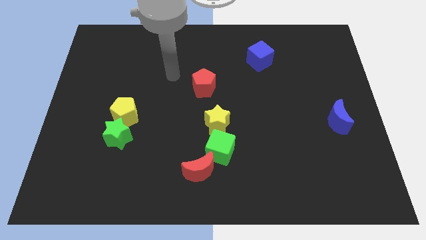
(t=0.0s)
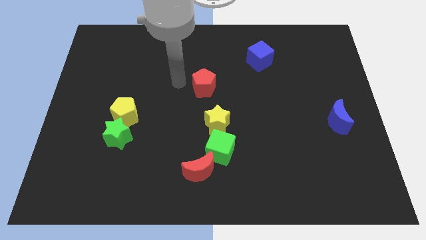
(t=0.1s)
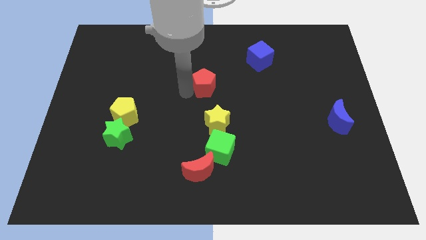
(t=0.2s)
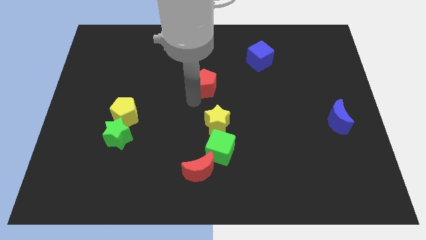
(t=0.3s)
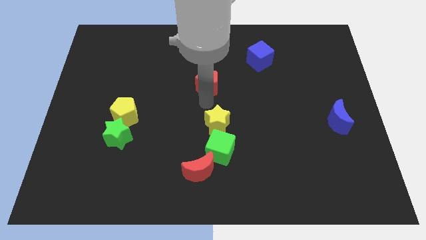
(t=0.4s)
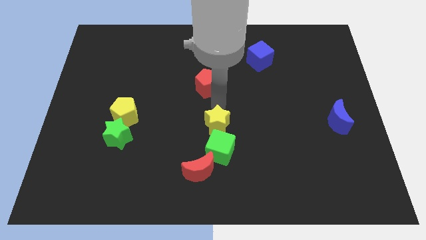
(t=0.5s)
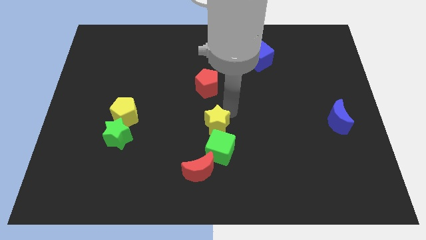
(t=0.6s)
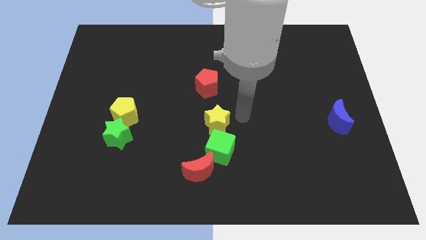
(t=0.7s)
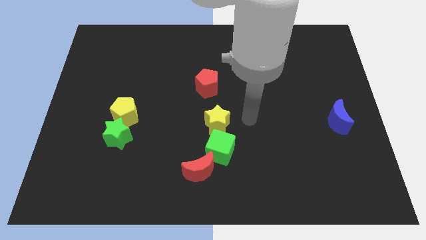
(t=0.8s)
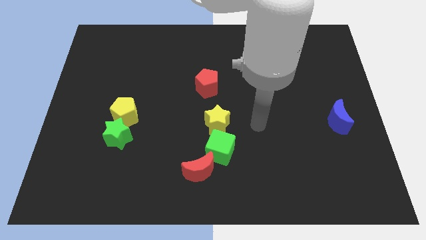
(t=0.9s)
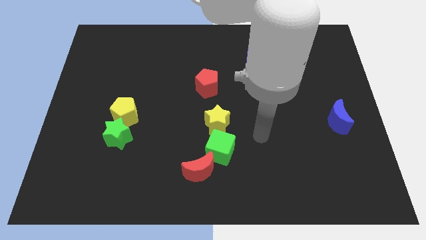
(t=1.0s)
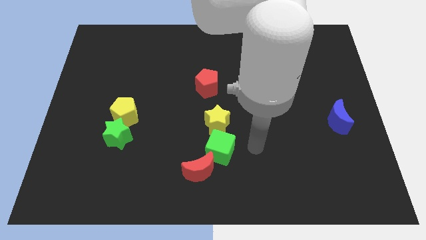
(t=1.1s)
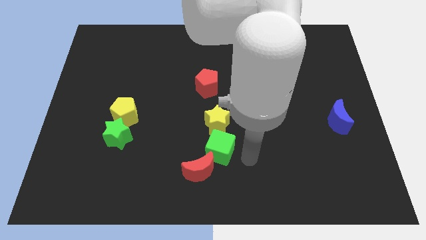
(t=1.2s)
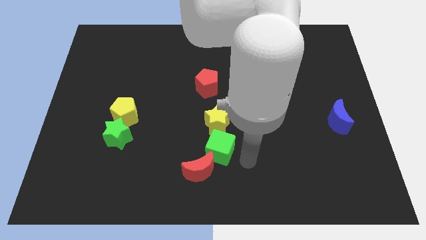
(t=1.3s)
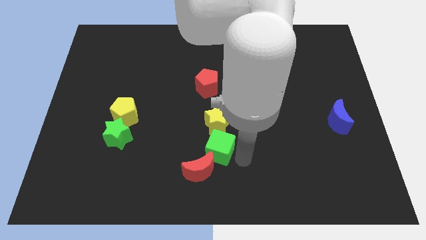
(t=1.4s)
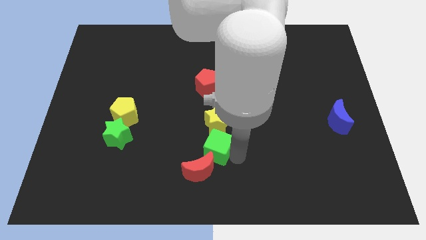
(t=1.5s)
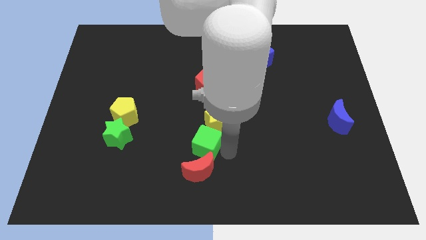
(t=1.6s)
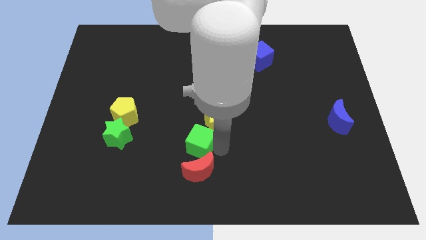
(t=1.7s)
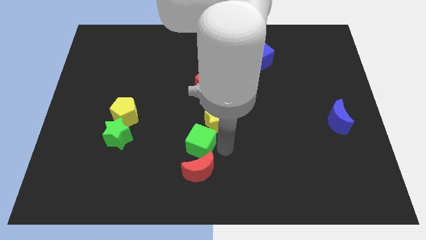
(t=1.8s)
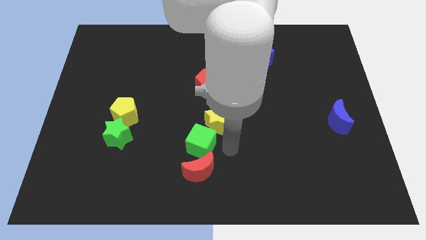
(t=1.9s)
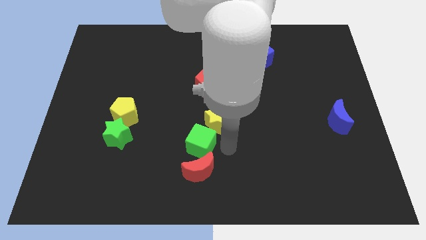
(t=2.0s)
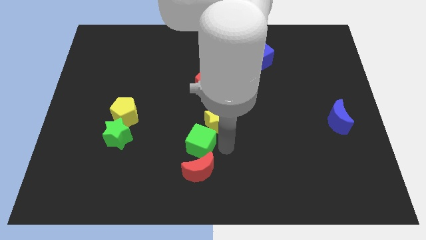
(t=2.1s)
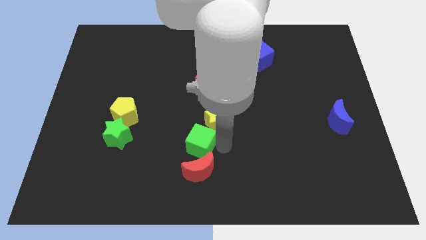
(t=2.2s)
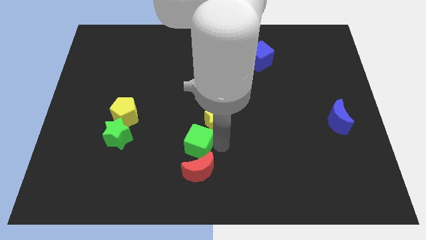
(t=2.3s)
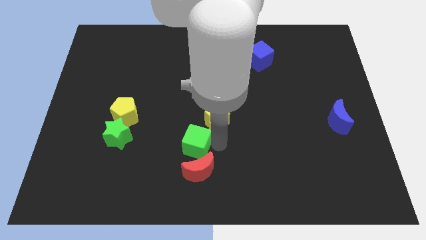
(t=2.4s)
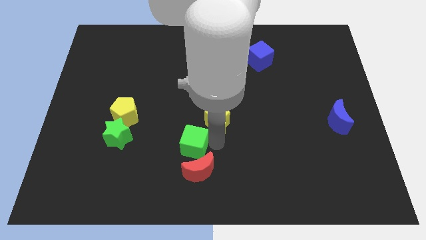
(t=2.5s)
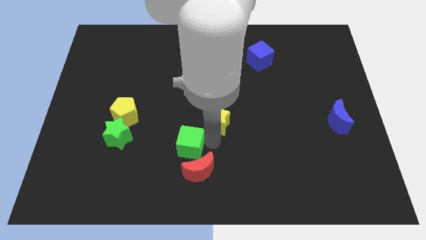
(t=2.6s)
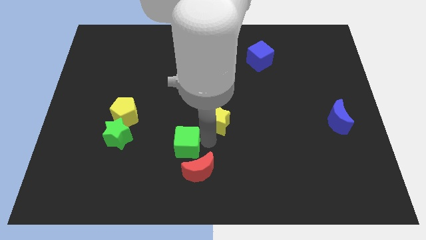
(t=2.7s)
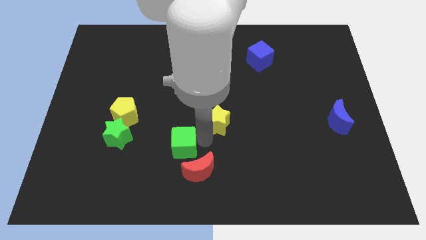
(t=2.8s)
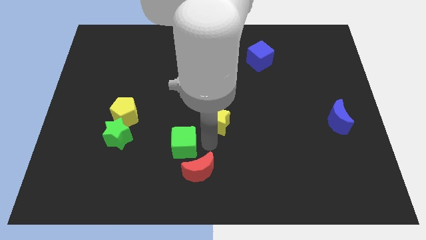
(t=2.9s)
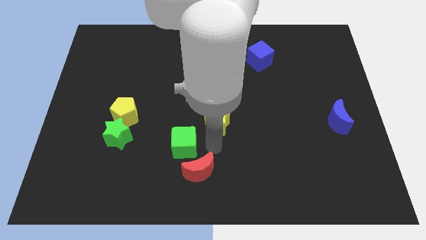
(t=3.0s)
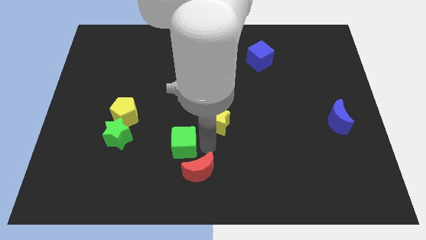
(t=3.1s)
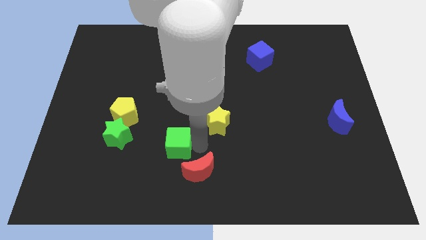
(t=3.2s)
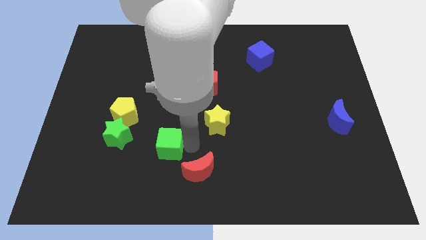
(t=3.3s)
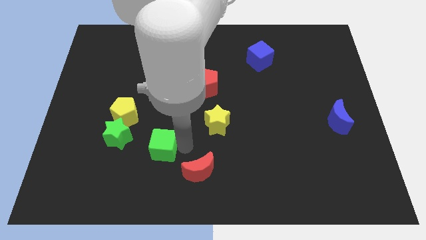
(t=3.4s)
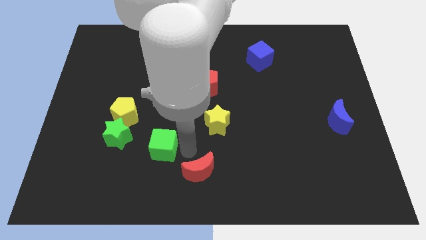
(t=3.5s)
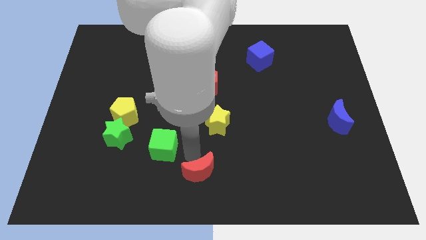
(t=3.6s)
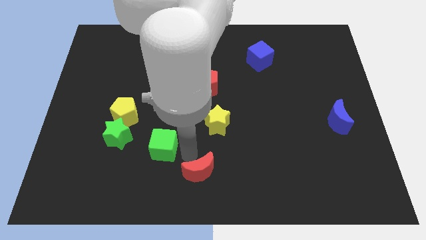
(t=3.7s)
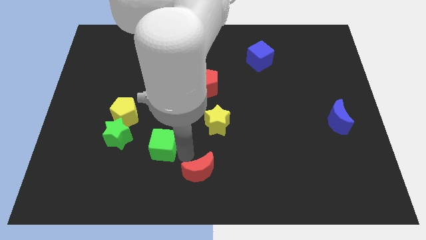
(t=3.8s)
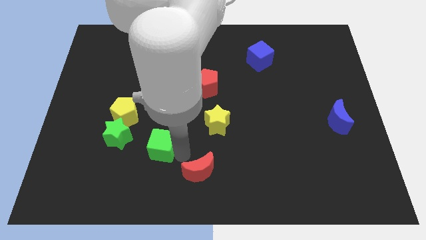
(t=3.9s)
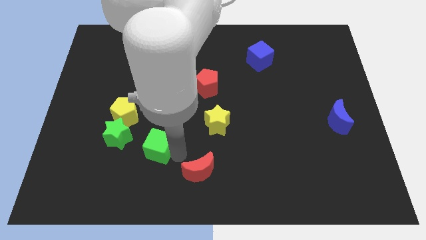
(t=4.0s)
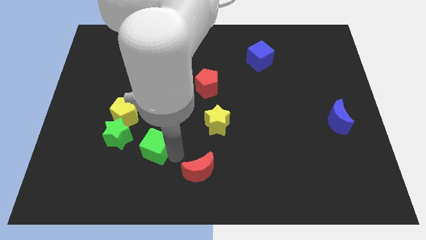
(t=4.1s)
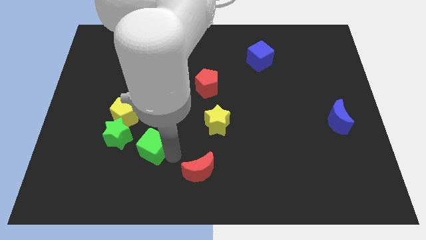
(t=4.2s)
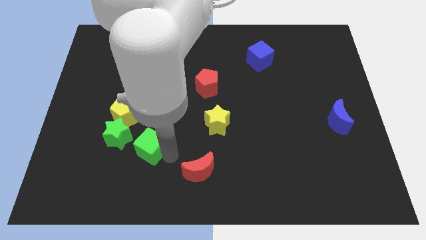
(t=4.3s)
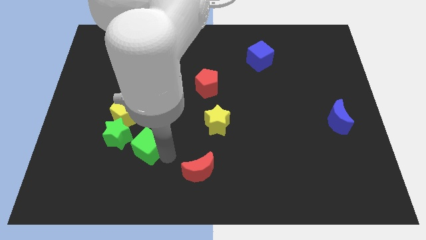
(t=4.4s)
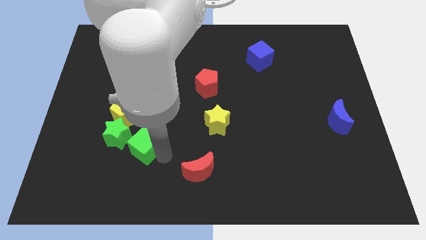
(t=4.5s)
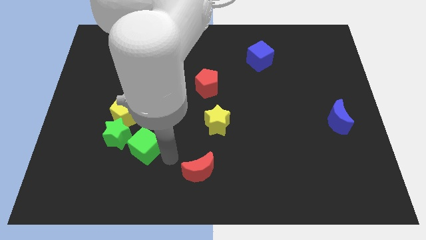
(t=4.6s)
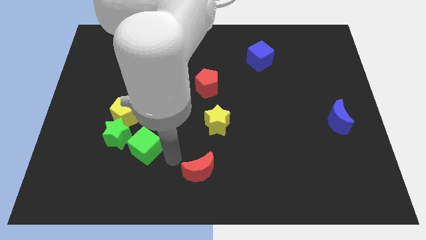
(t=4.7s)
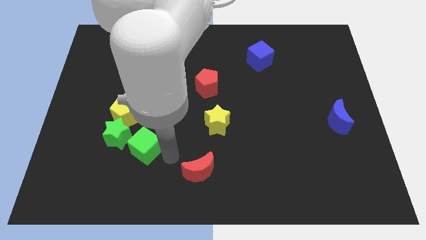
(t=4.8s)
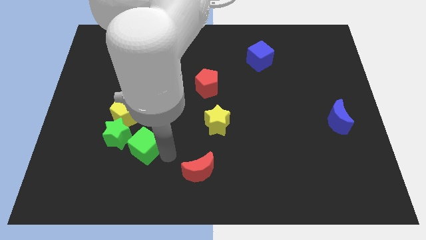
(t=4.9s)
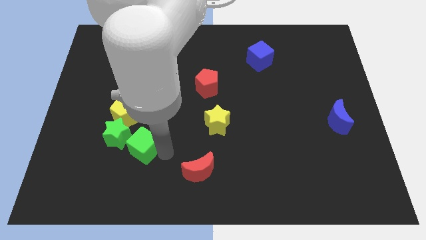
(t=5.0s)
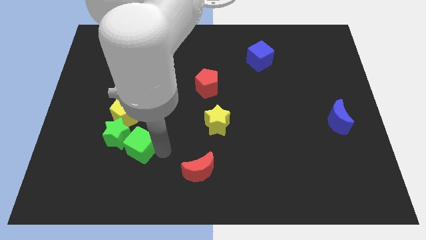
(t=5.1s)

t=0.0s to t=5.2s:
put the green cube towards the green star

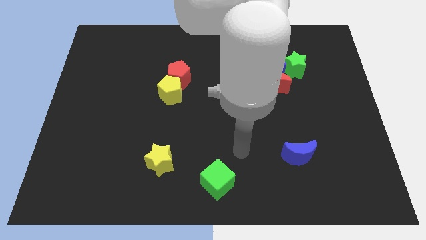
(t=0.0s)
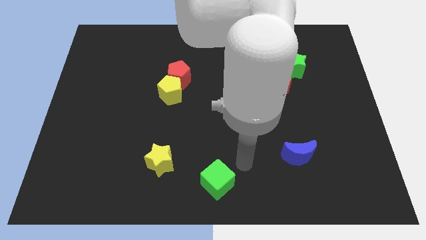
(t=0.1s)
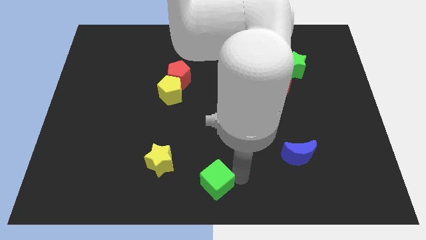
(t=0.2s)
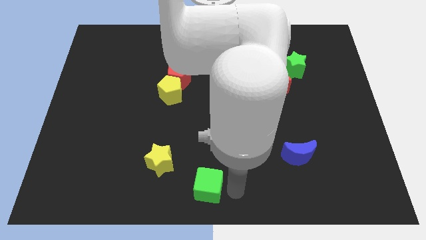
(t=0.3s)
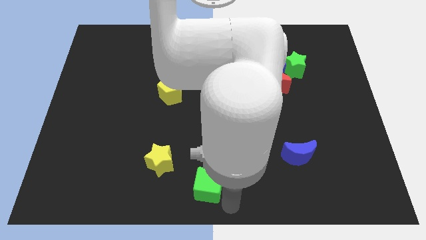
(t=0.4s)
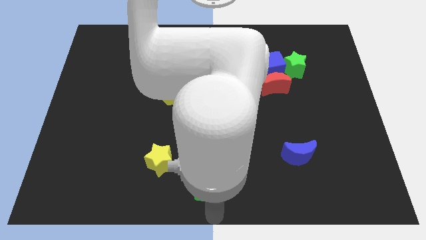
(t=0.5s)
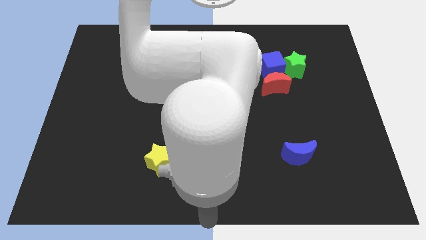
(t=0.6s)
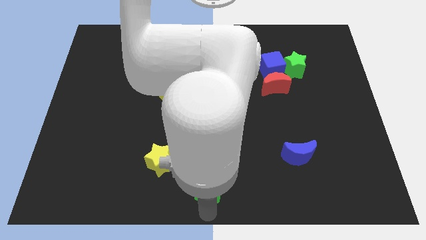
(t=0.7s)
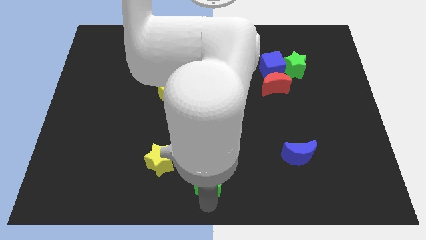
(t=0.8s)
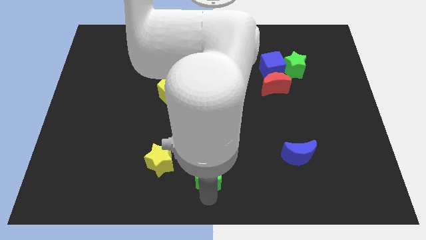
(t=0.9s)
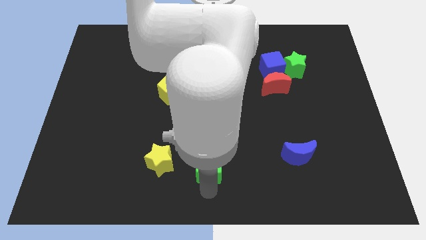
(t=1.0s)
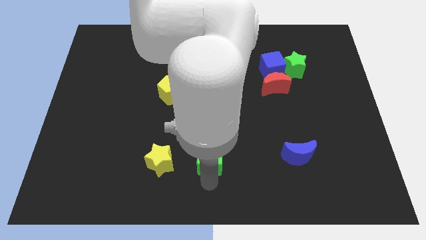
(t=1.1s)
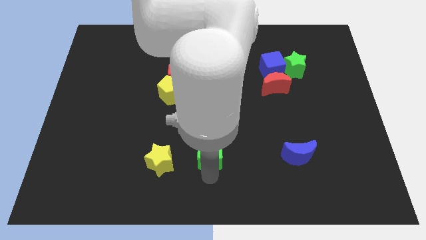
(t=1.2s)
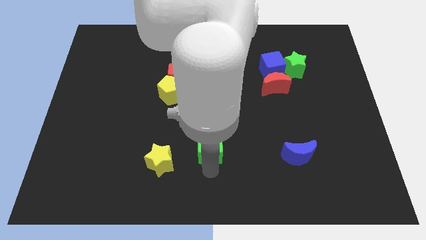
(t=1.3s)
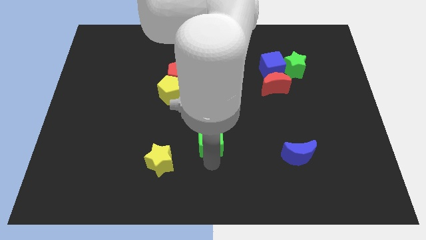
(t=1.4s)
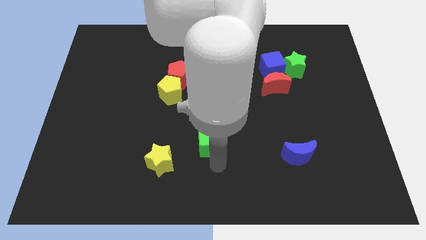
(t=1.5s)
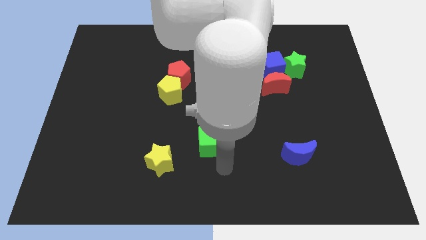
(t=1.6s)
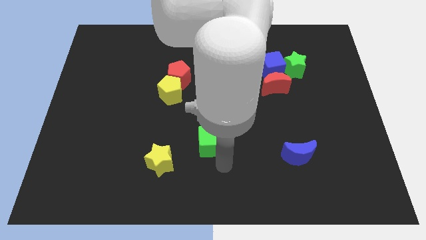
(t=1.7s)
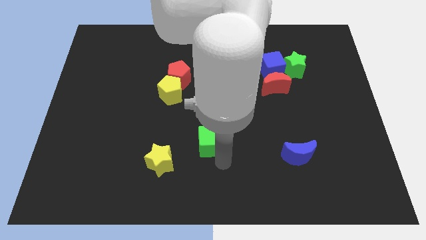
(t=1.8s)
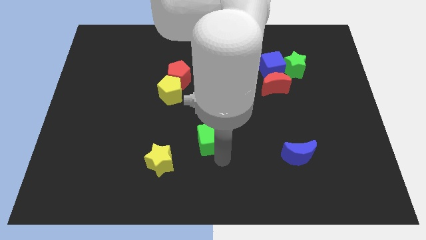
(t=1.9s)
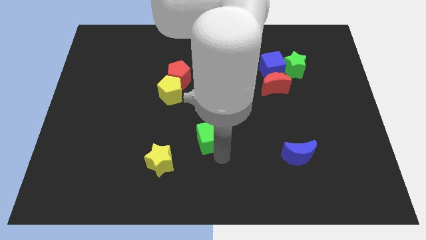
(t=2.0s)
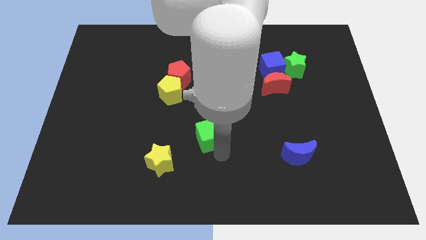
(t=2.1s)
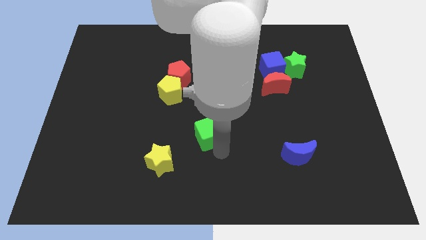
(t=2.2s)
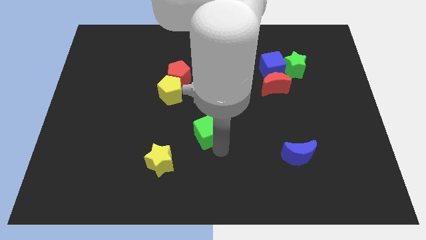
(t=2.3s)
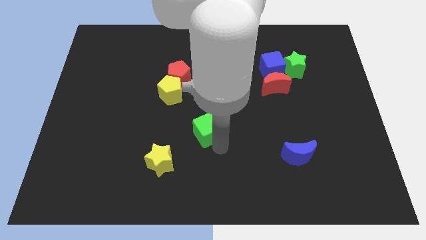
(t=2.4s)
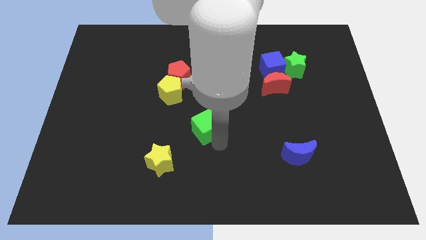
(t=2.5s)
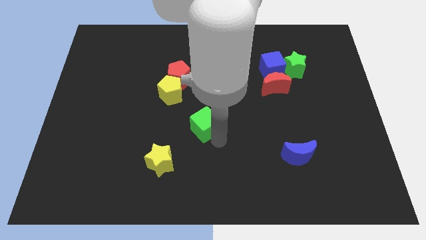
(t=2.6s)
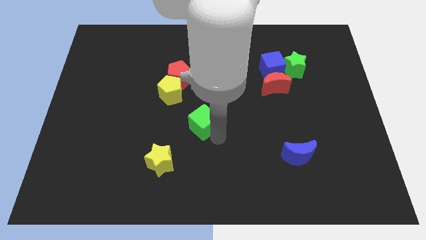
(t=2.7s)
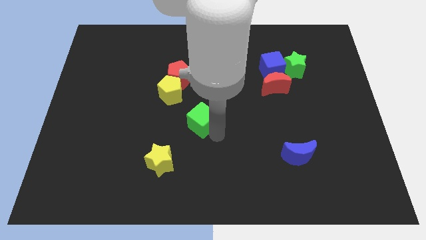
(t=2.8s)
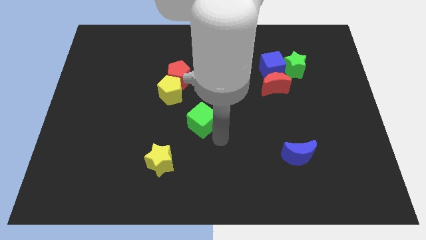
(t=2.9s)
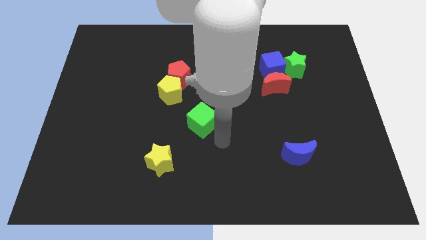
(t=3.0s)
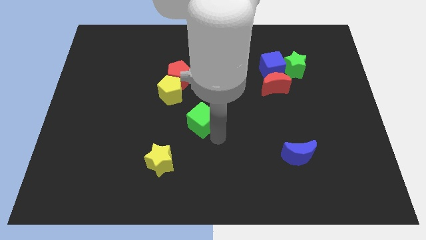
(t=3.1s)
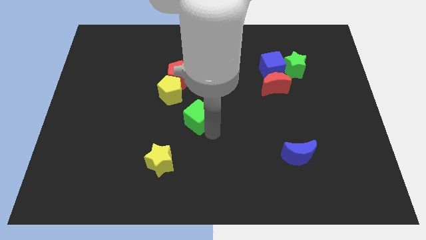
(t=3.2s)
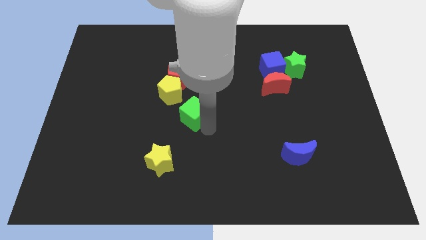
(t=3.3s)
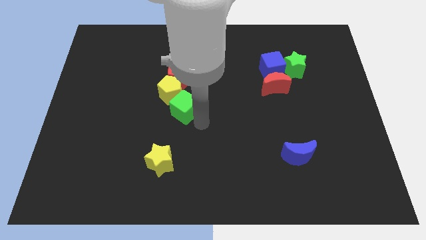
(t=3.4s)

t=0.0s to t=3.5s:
move the green cube to the yellow pentagon
